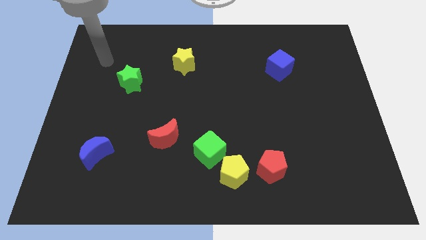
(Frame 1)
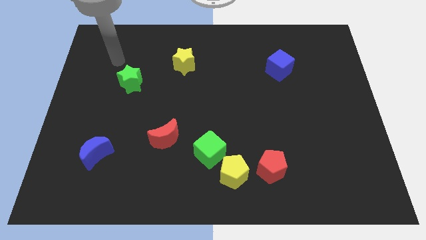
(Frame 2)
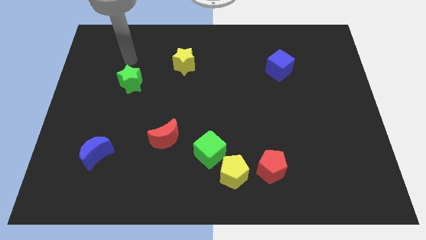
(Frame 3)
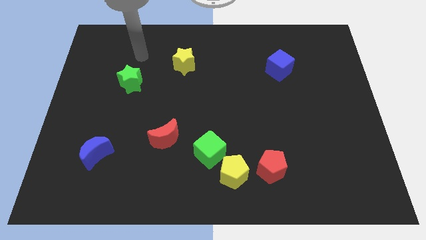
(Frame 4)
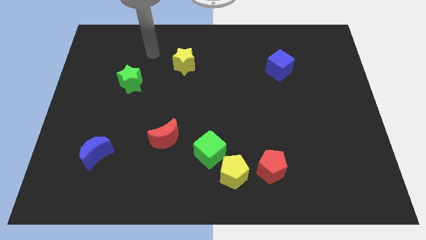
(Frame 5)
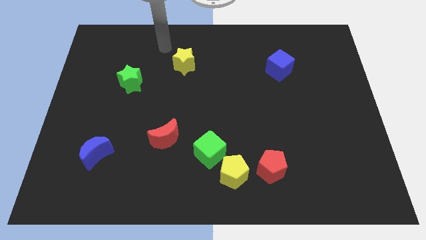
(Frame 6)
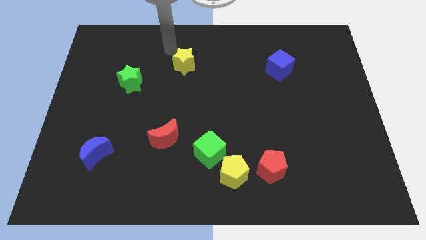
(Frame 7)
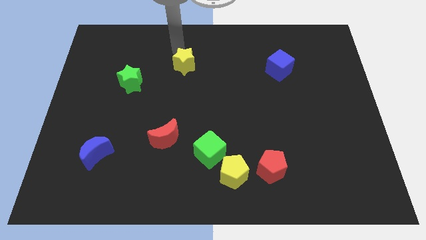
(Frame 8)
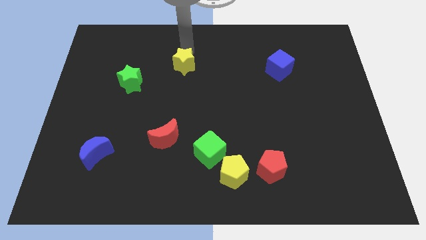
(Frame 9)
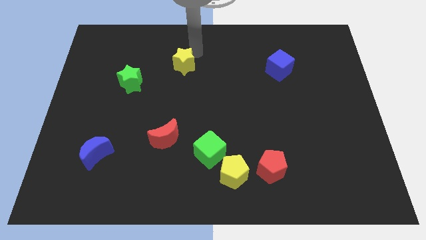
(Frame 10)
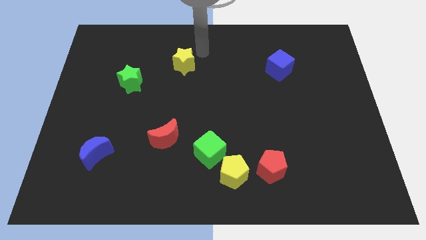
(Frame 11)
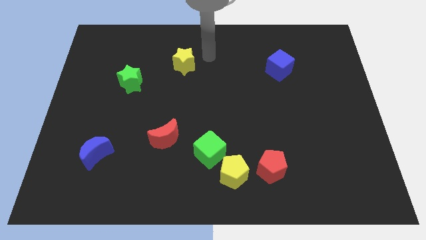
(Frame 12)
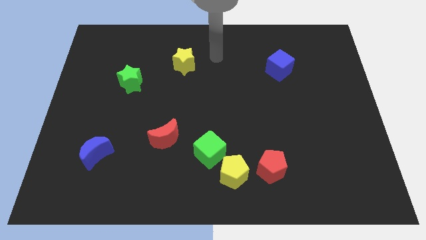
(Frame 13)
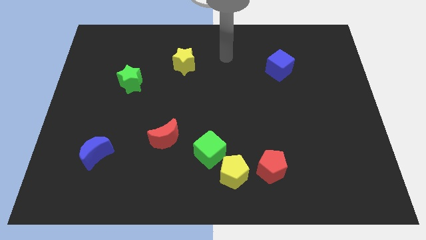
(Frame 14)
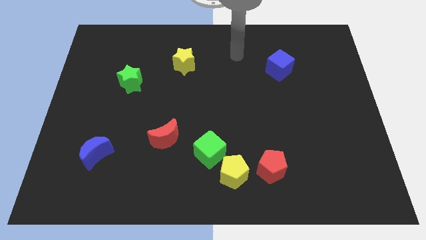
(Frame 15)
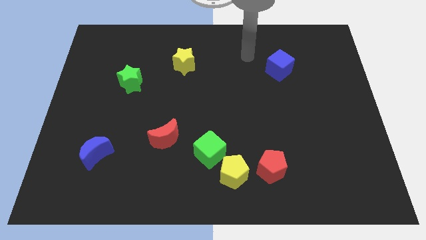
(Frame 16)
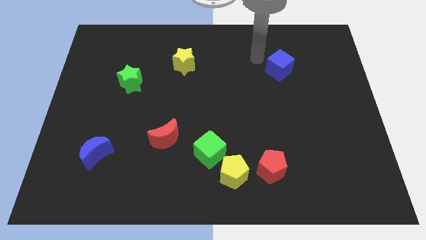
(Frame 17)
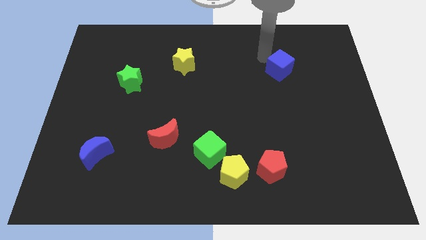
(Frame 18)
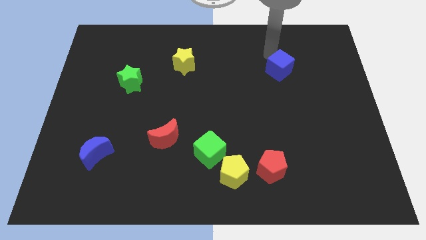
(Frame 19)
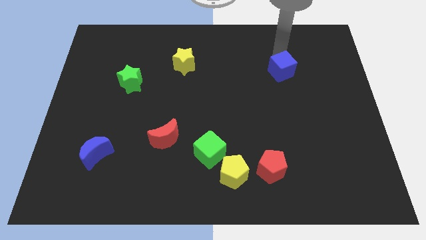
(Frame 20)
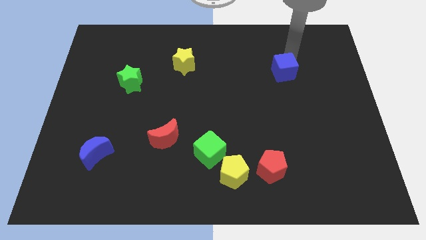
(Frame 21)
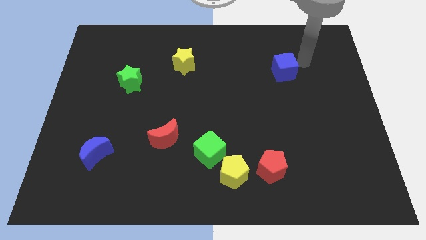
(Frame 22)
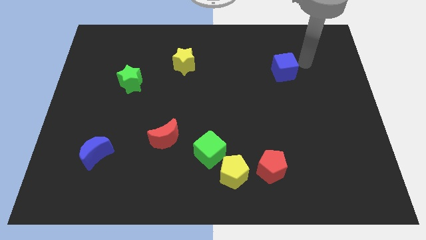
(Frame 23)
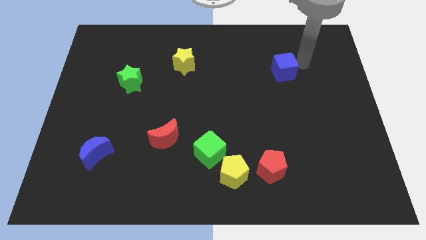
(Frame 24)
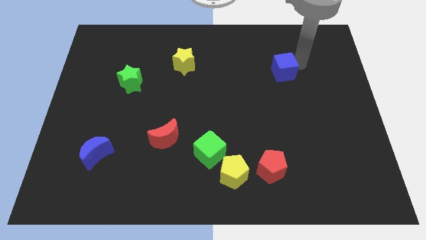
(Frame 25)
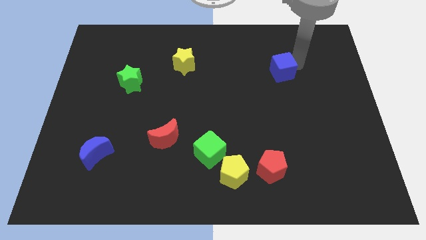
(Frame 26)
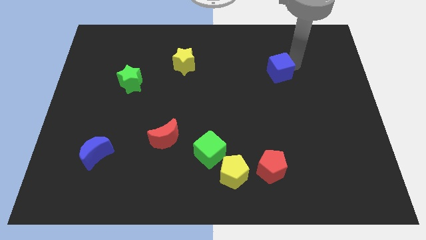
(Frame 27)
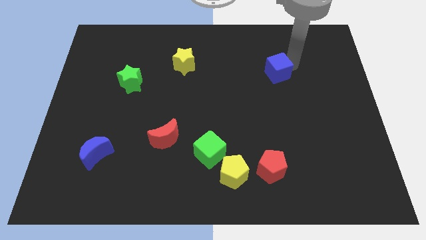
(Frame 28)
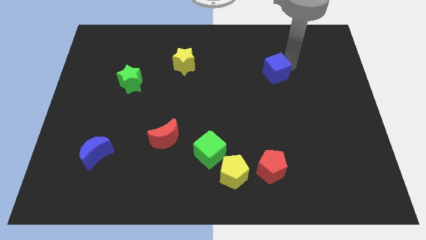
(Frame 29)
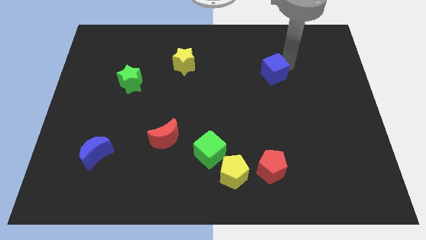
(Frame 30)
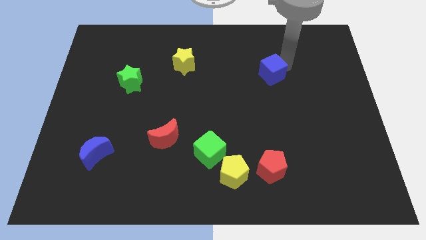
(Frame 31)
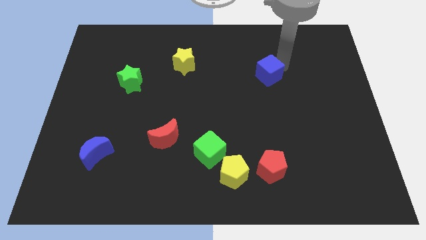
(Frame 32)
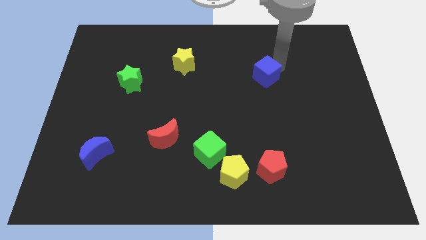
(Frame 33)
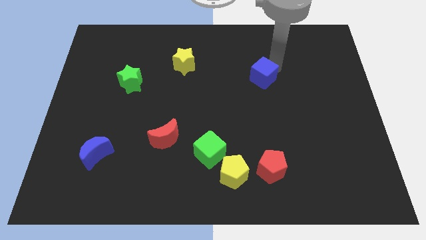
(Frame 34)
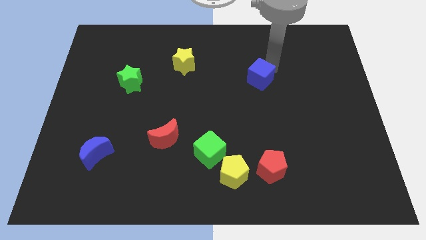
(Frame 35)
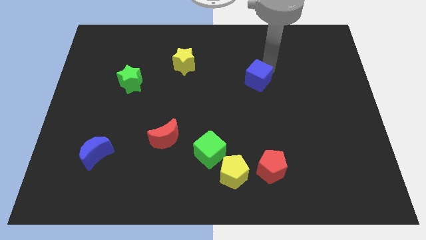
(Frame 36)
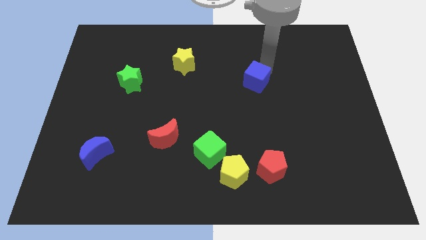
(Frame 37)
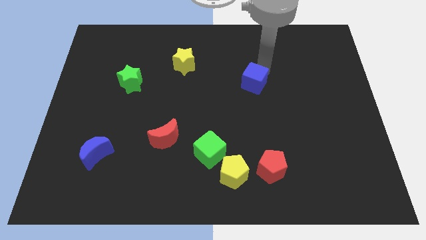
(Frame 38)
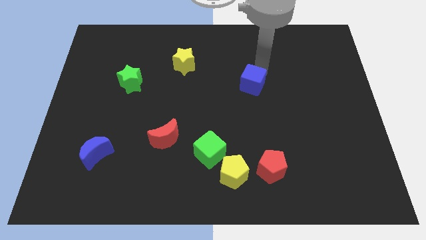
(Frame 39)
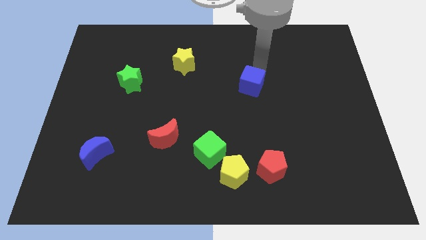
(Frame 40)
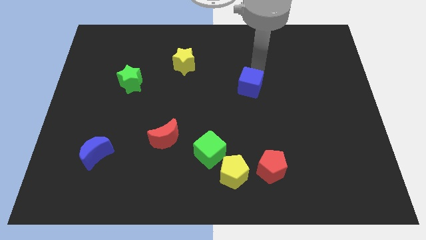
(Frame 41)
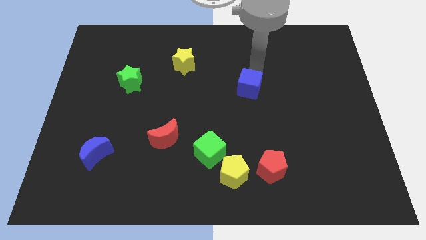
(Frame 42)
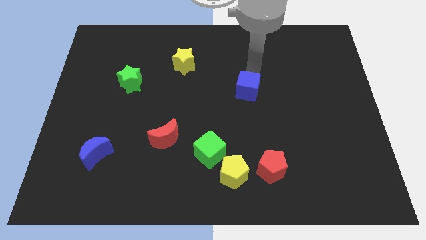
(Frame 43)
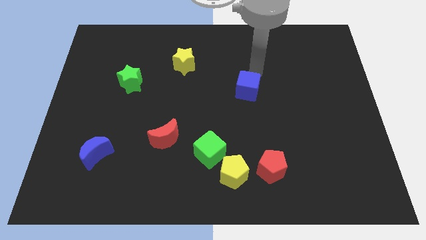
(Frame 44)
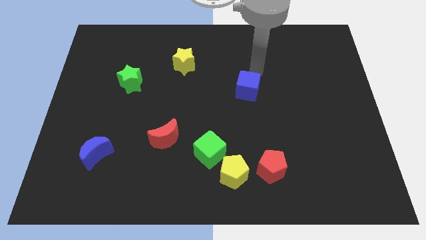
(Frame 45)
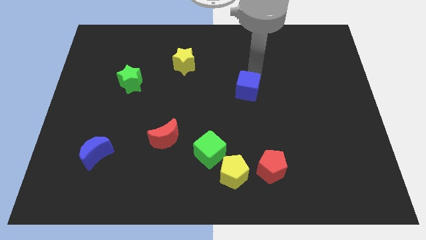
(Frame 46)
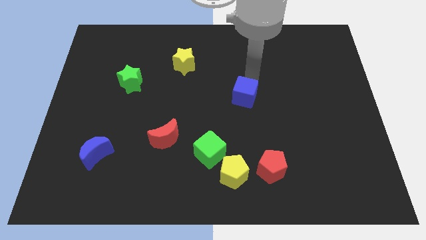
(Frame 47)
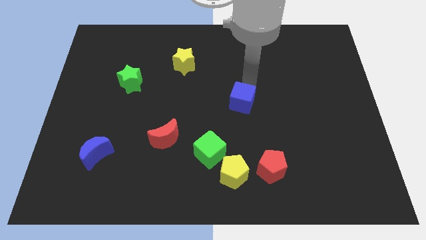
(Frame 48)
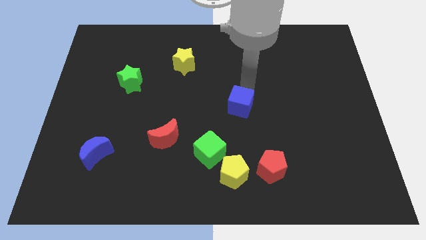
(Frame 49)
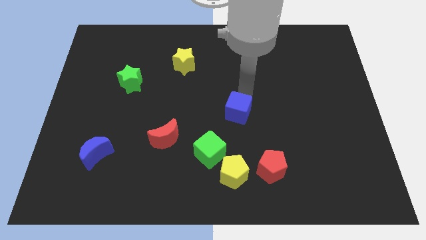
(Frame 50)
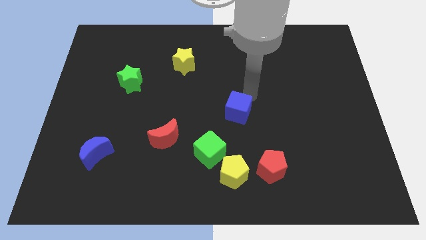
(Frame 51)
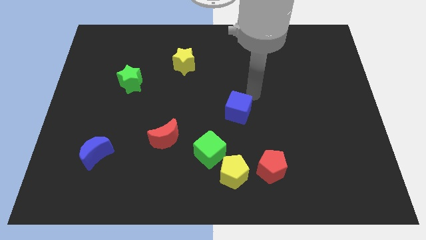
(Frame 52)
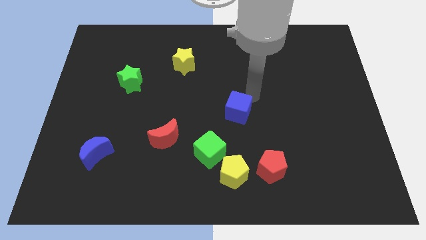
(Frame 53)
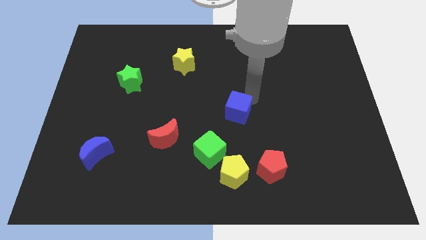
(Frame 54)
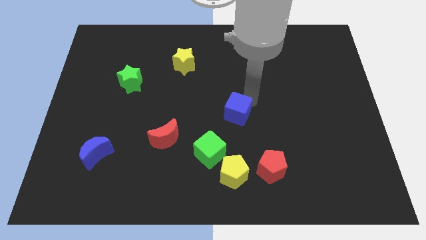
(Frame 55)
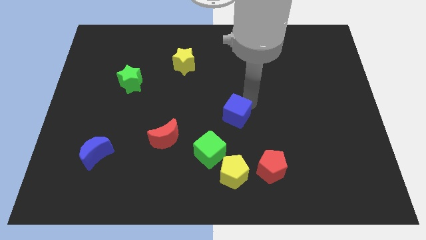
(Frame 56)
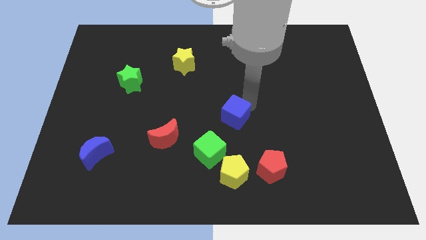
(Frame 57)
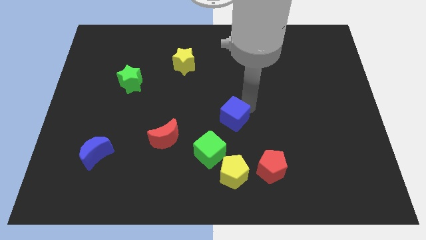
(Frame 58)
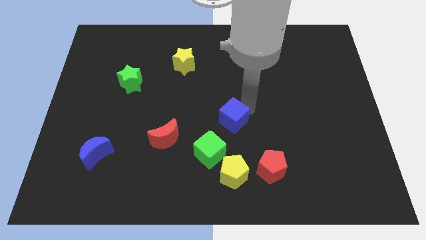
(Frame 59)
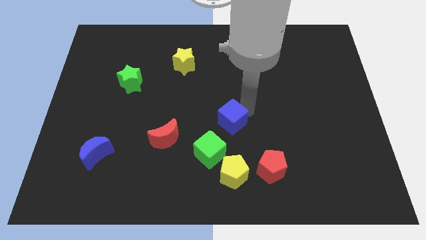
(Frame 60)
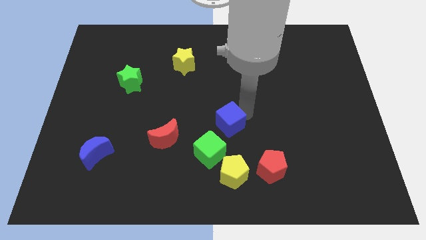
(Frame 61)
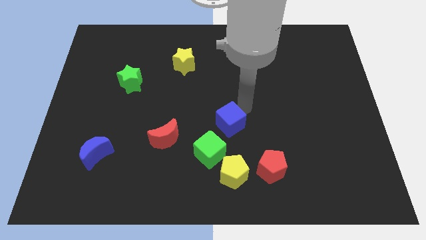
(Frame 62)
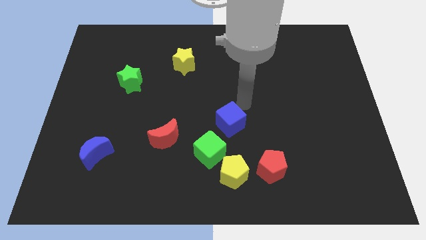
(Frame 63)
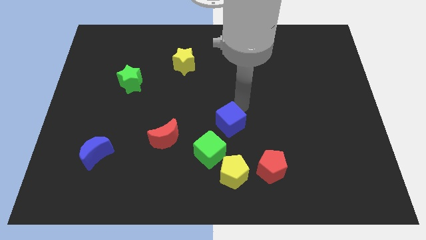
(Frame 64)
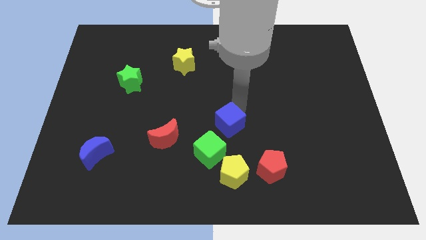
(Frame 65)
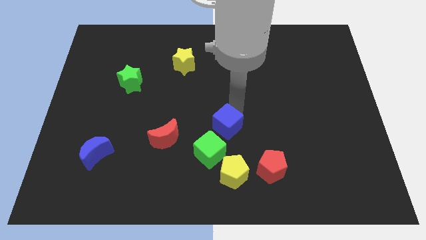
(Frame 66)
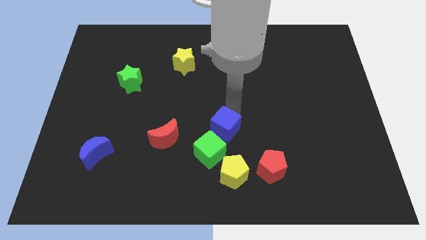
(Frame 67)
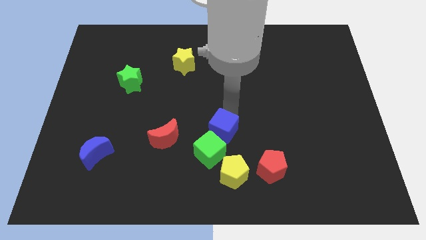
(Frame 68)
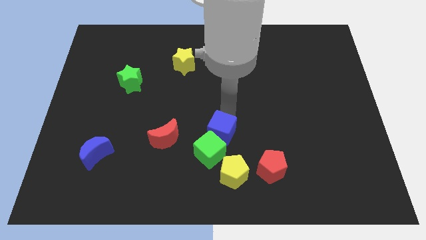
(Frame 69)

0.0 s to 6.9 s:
slide the blue cube to the green cube

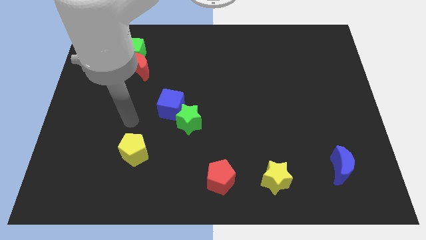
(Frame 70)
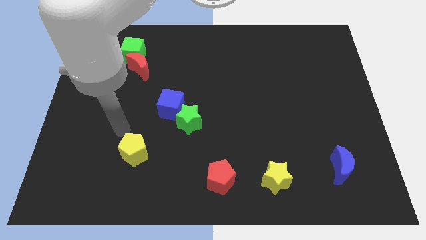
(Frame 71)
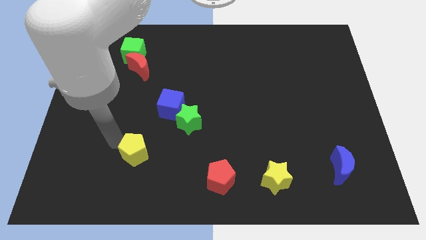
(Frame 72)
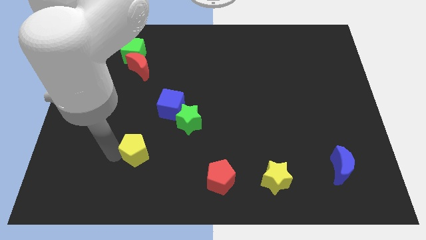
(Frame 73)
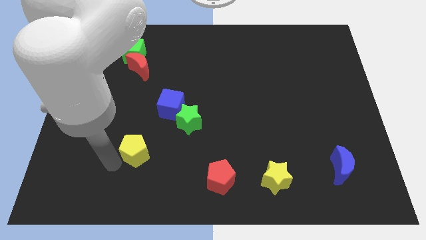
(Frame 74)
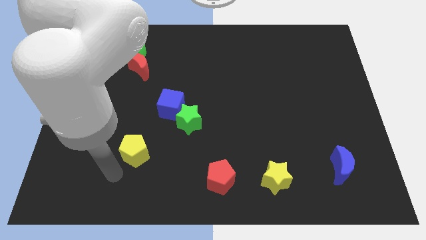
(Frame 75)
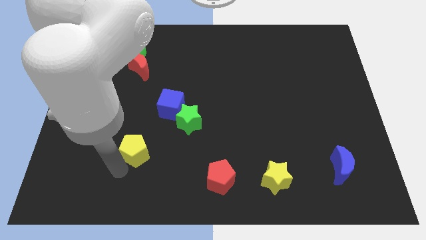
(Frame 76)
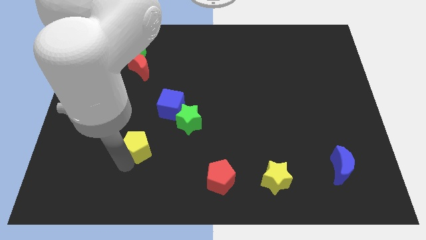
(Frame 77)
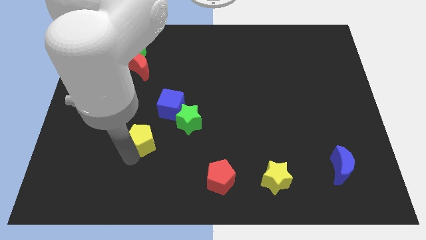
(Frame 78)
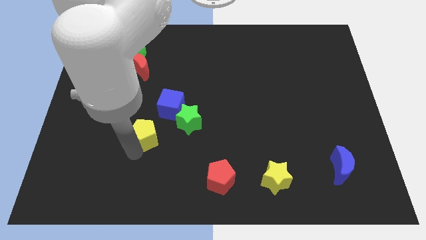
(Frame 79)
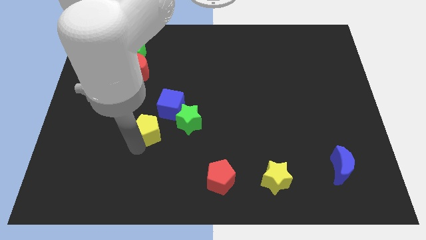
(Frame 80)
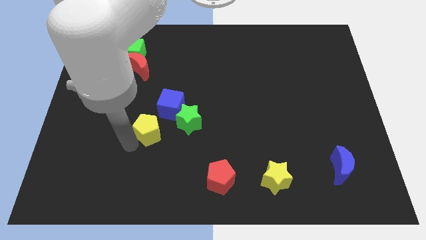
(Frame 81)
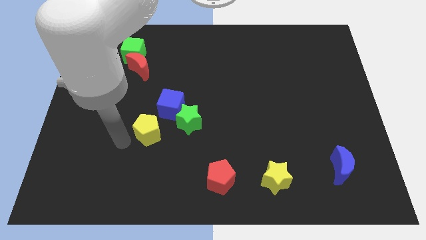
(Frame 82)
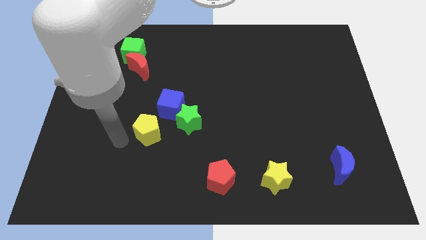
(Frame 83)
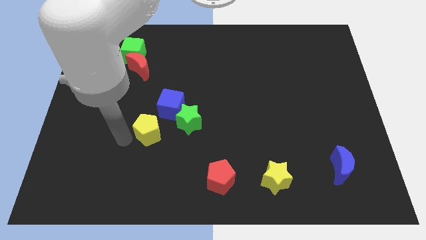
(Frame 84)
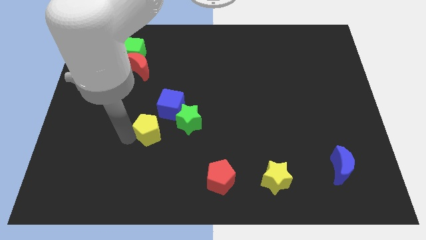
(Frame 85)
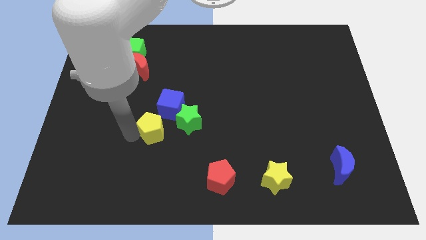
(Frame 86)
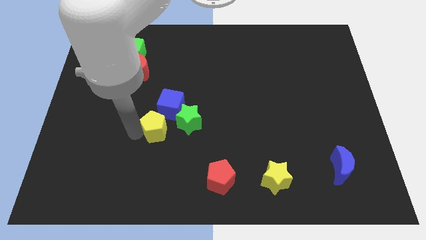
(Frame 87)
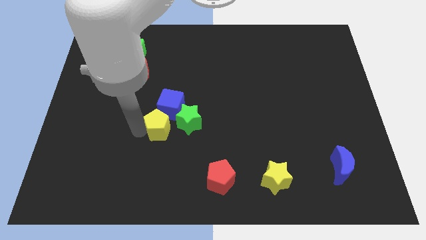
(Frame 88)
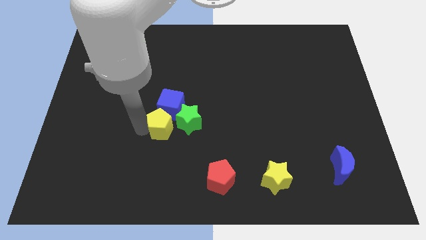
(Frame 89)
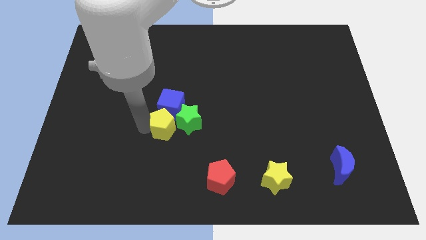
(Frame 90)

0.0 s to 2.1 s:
push the yellow pentagon to the green star
